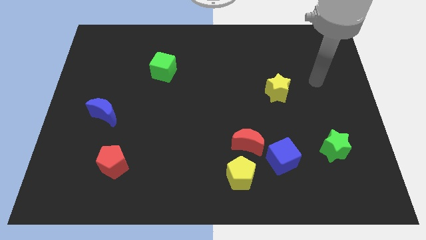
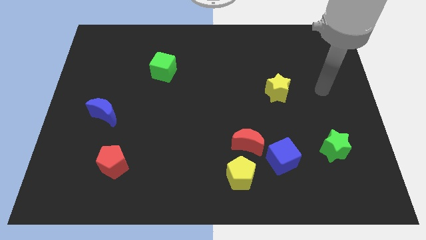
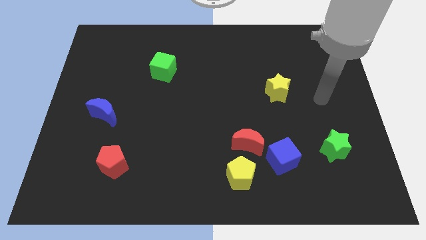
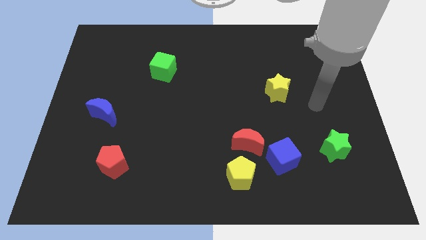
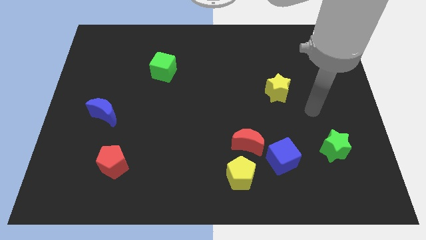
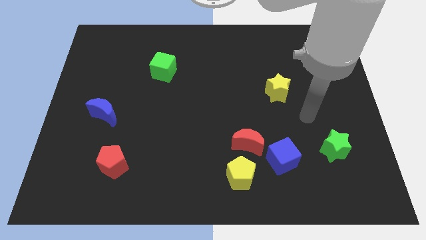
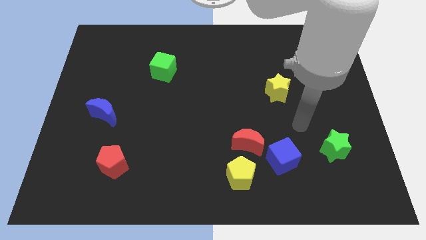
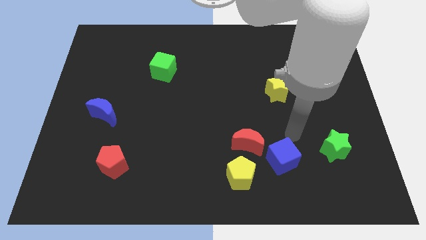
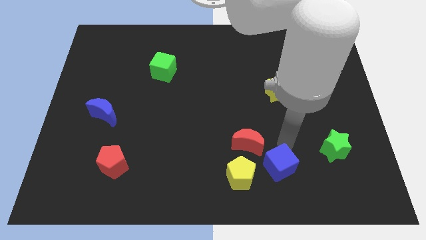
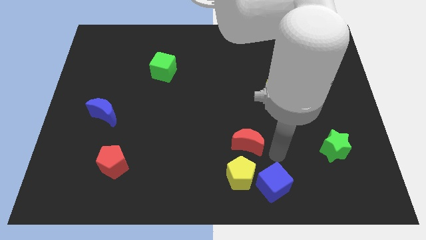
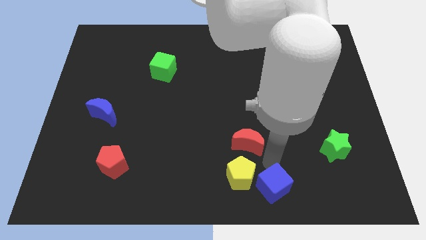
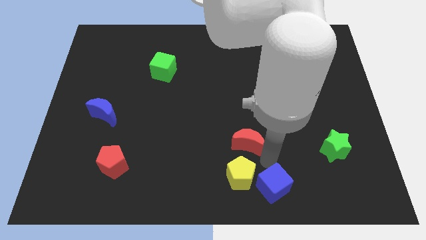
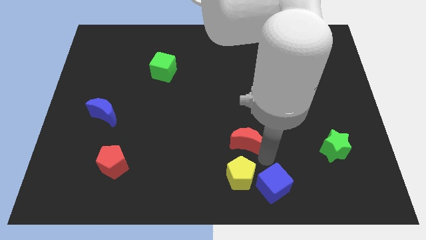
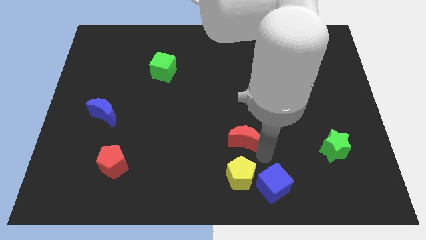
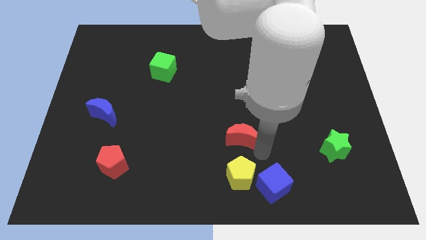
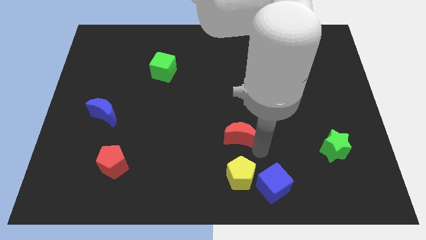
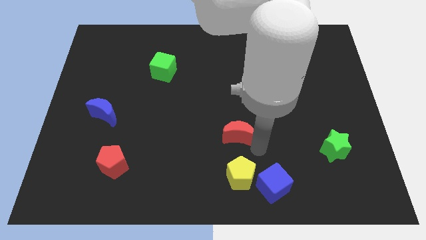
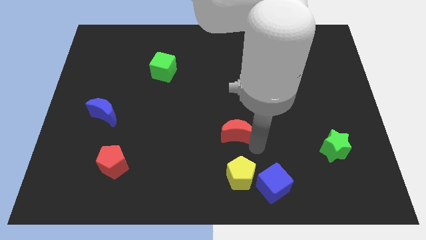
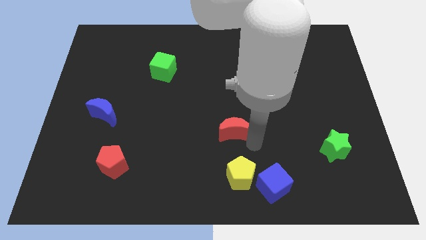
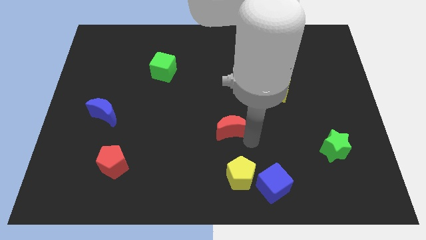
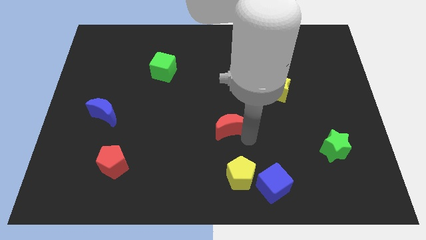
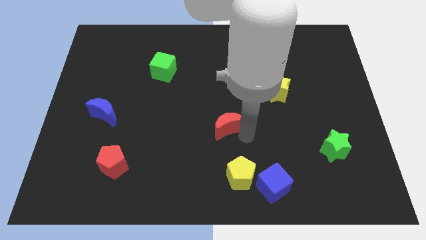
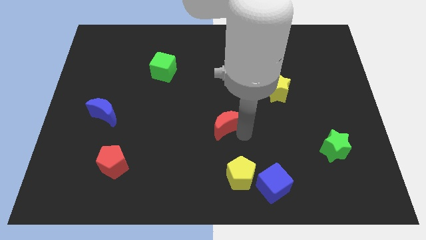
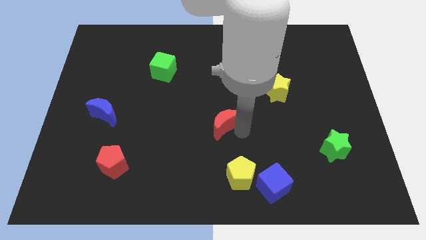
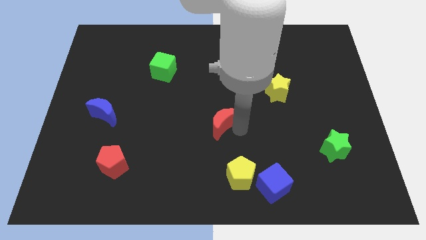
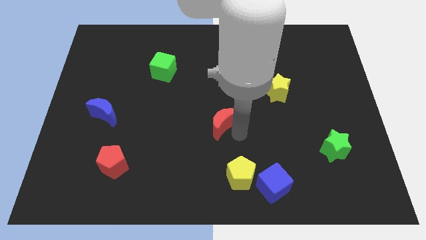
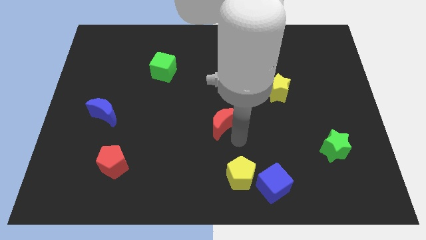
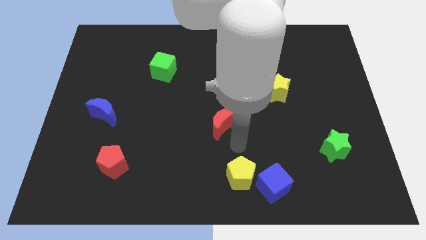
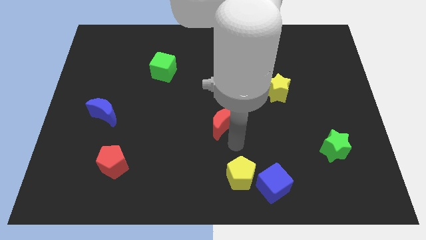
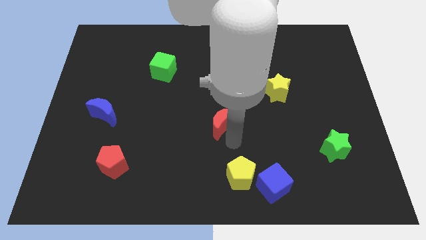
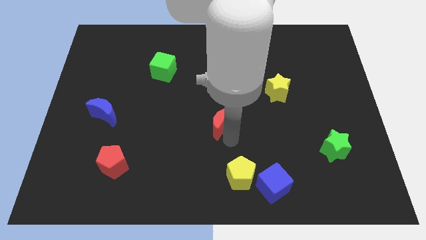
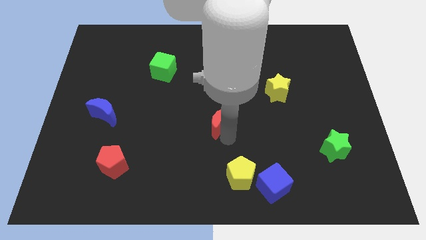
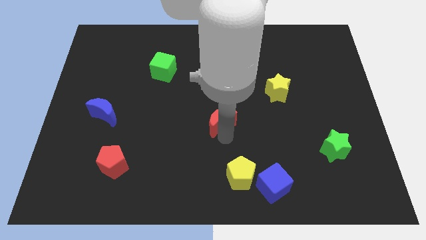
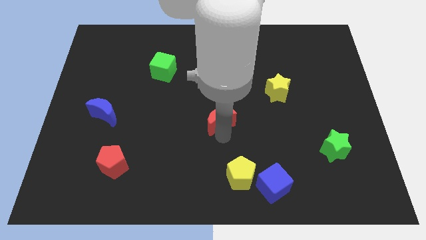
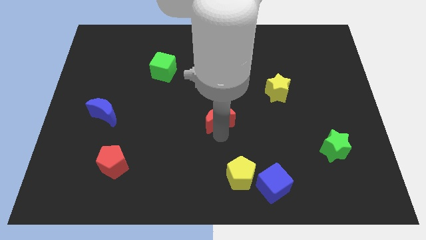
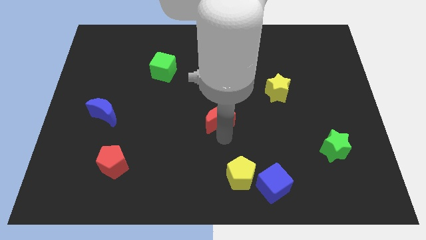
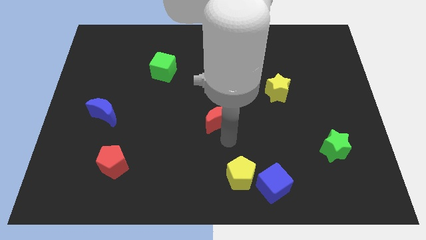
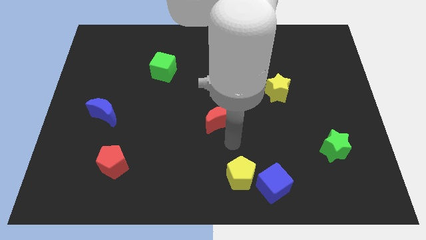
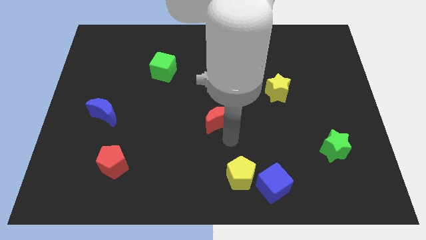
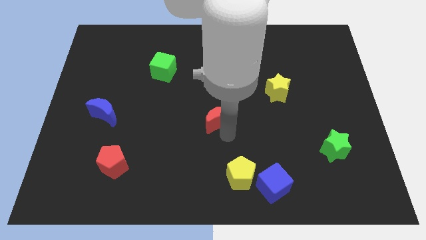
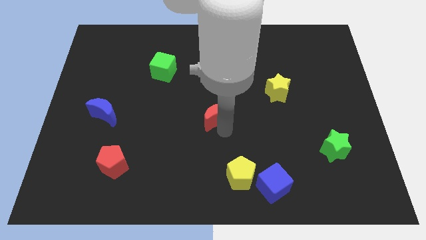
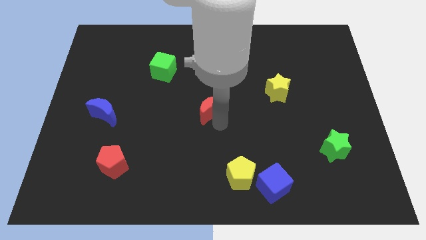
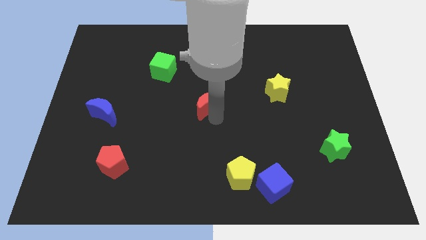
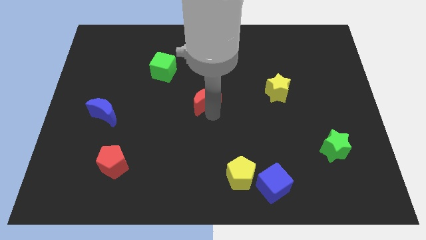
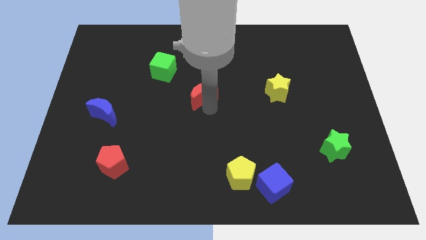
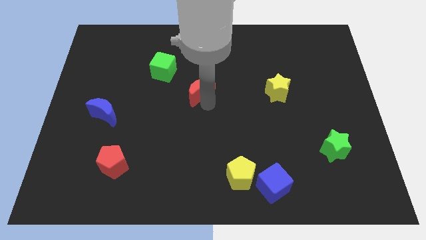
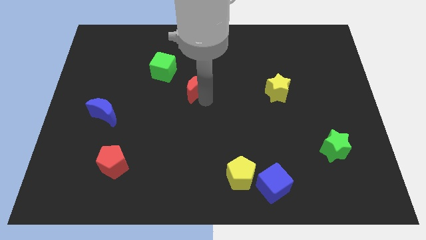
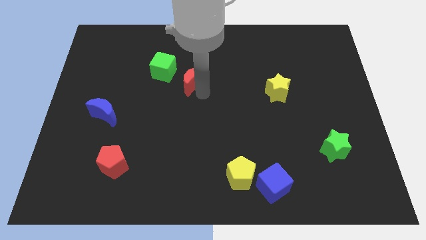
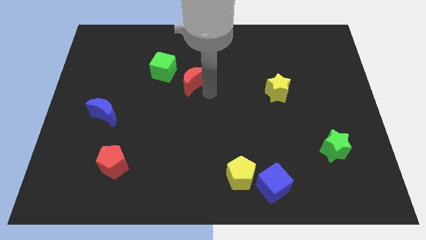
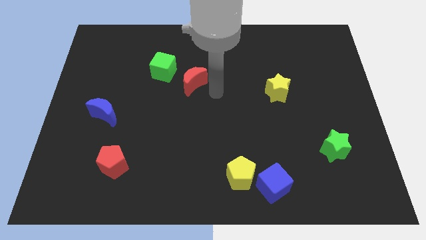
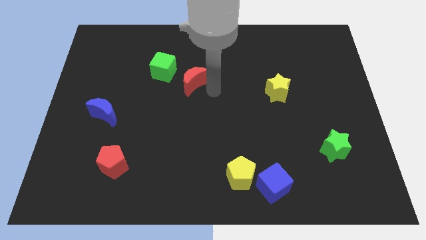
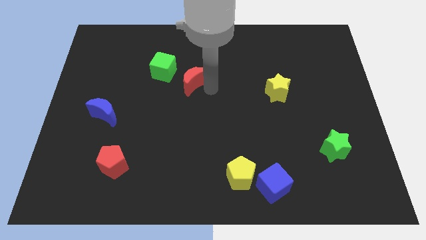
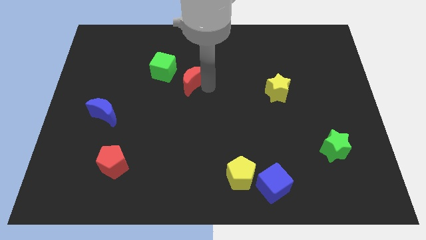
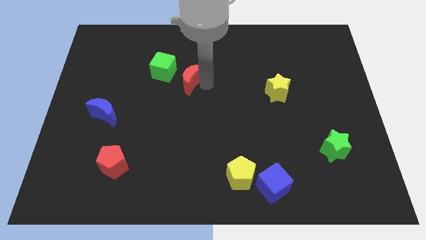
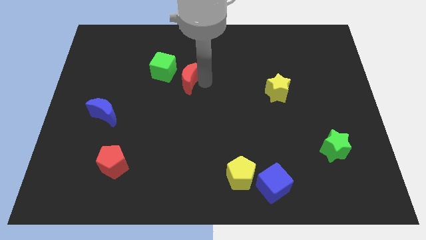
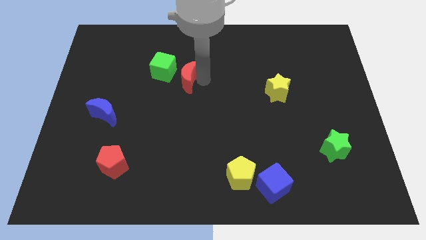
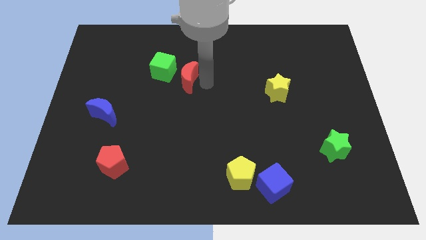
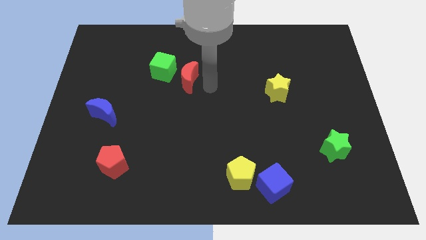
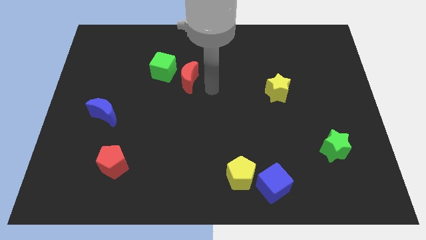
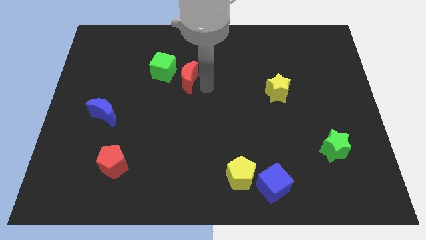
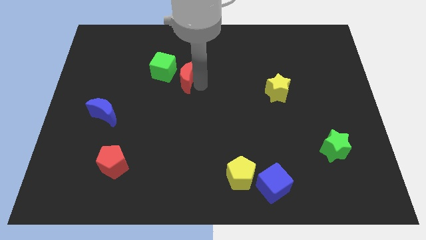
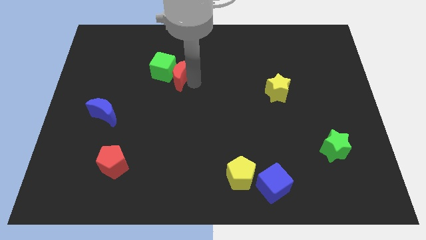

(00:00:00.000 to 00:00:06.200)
move the red moon towards the green cube

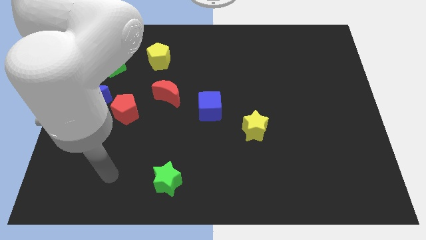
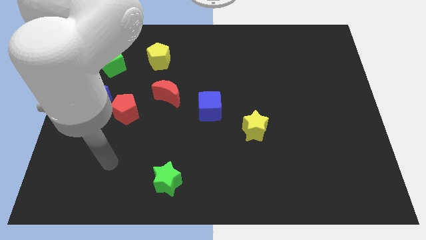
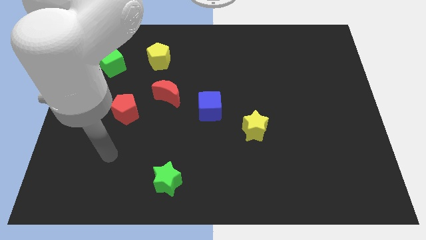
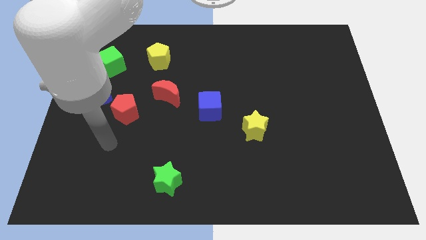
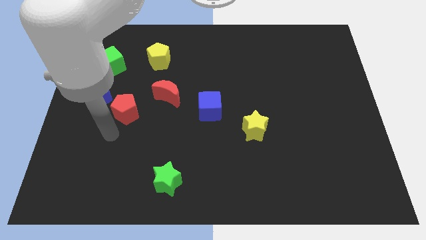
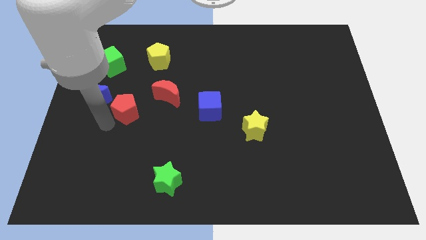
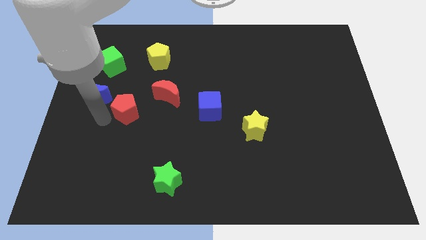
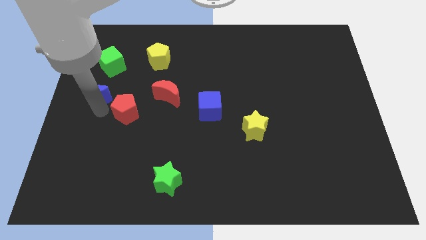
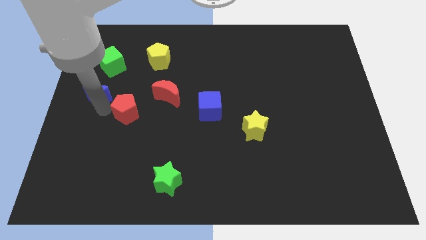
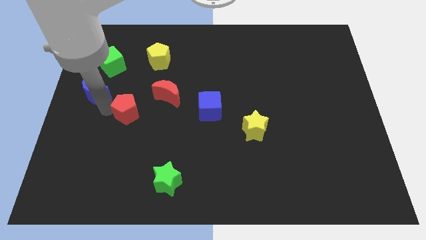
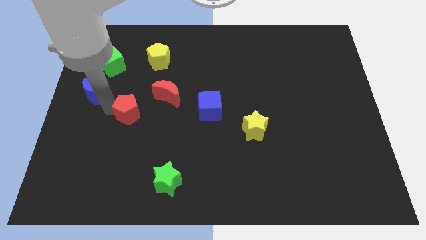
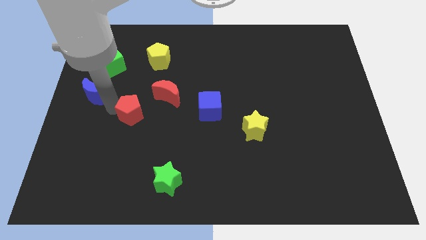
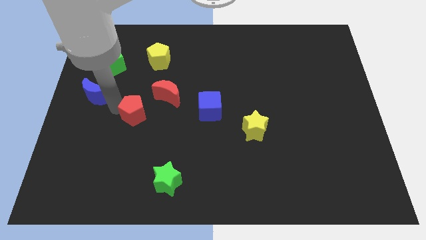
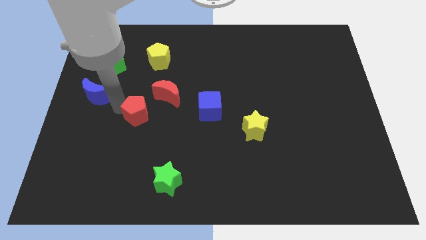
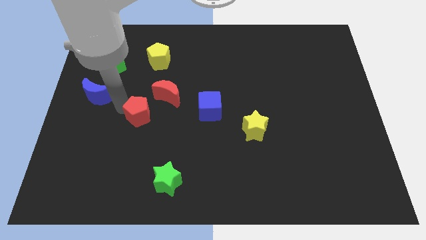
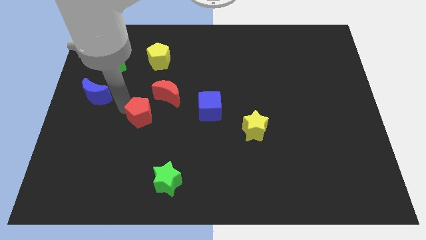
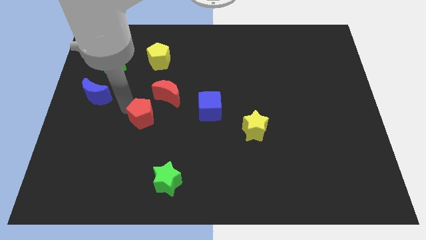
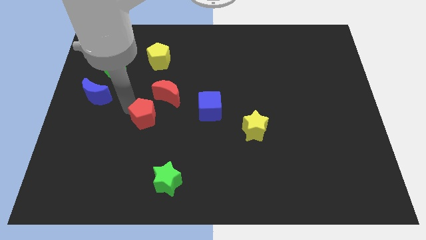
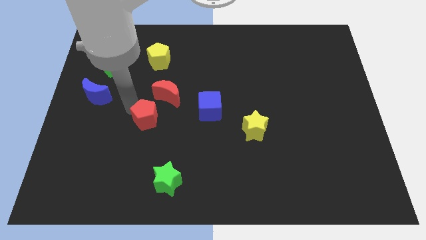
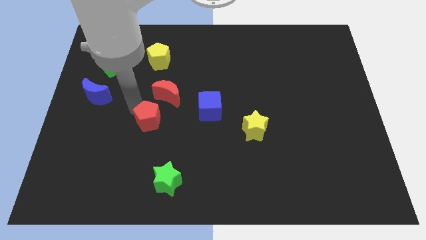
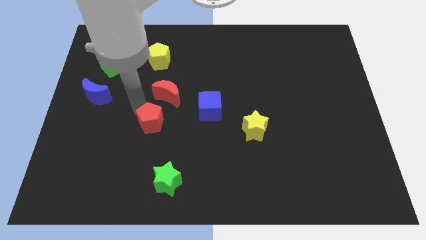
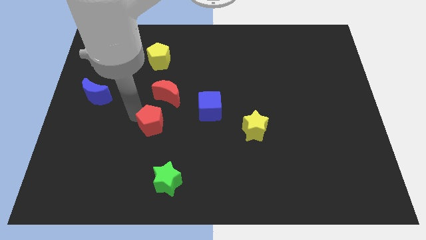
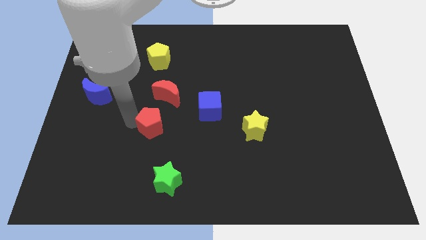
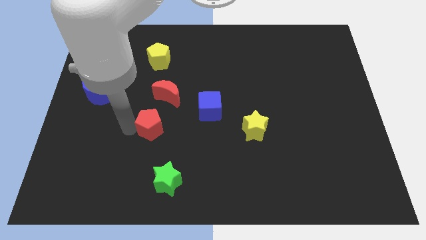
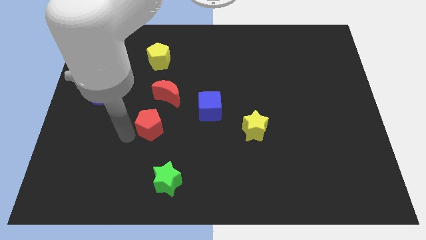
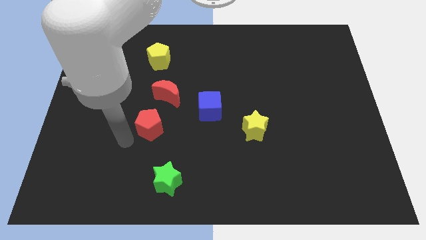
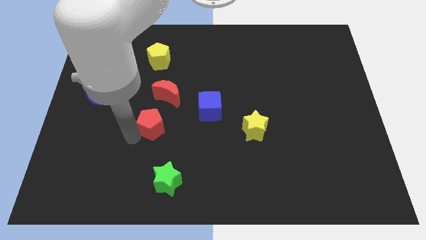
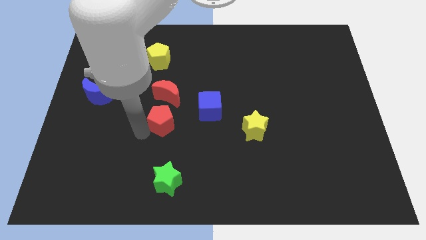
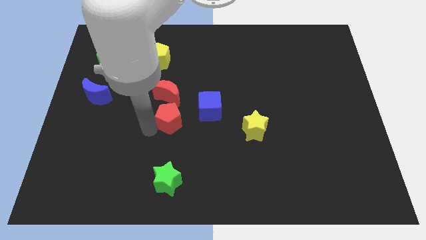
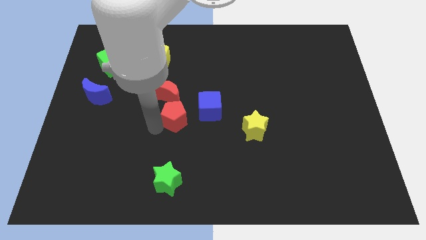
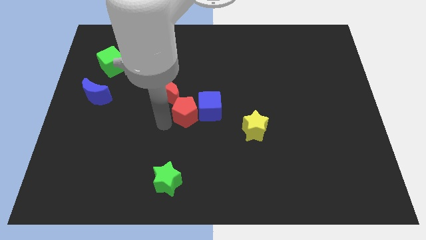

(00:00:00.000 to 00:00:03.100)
slide the red pentagon close to the blue cube
